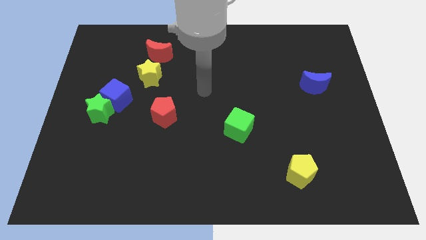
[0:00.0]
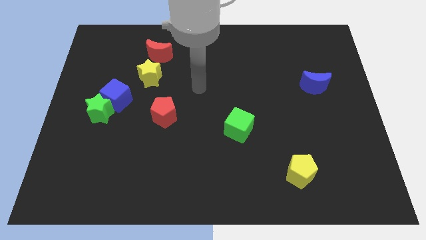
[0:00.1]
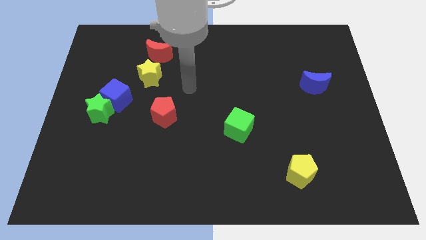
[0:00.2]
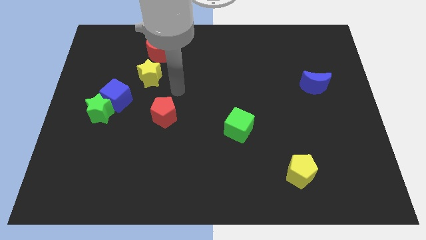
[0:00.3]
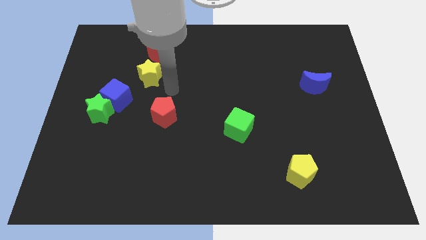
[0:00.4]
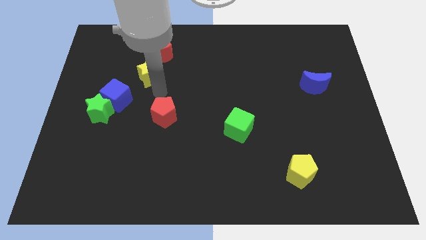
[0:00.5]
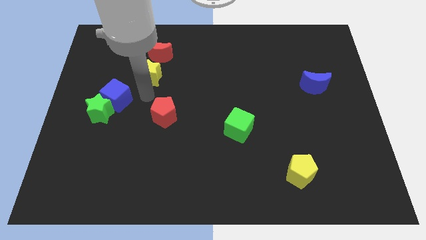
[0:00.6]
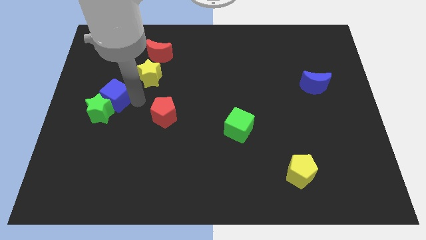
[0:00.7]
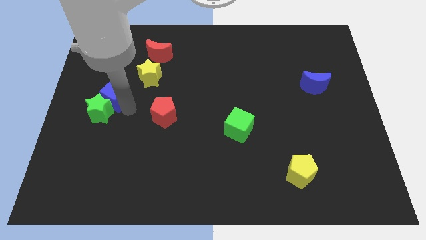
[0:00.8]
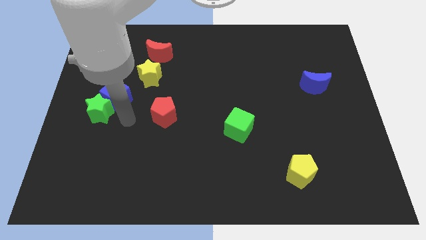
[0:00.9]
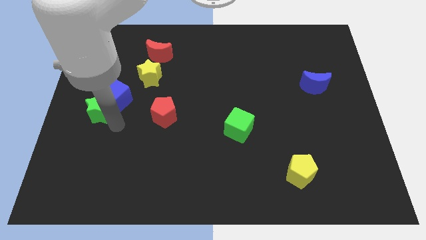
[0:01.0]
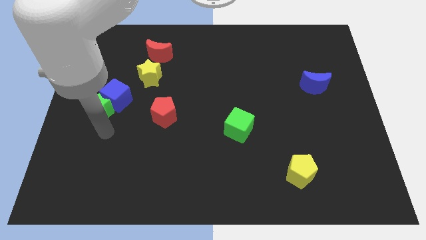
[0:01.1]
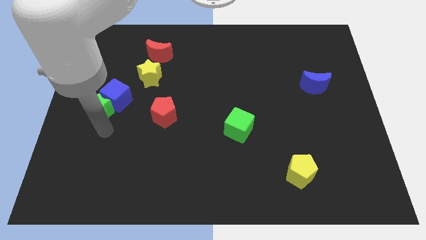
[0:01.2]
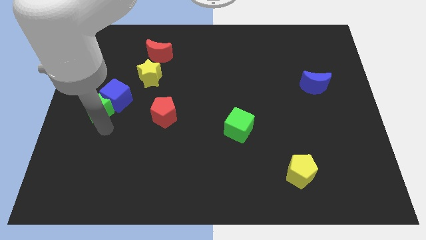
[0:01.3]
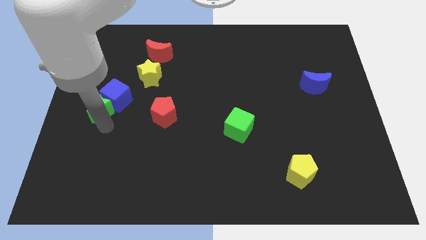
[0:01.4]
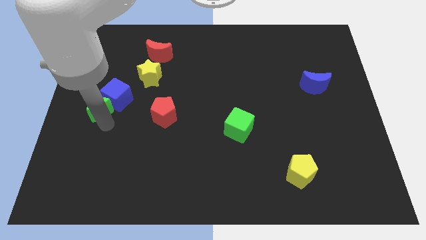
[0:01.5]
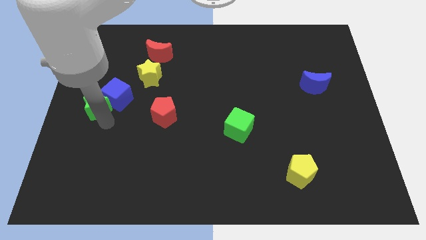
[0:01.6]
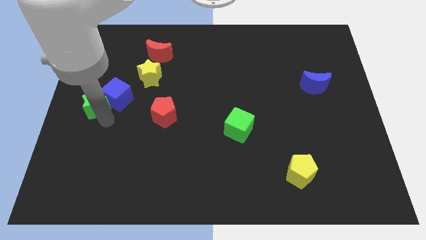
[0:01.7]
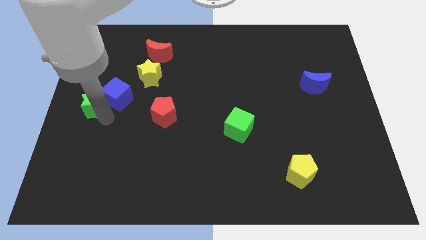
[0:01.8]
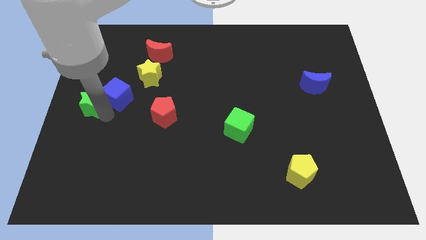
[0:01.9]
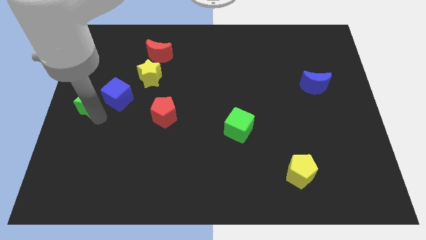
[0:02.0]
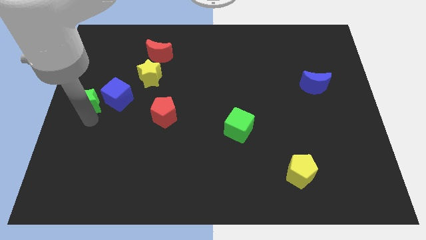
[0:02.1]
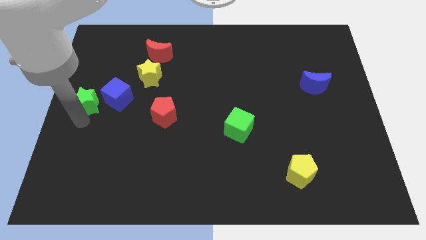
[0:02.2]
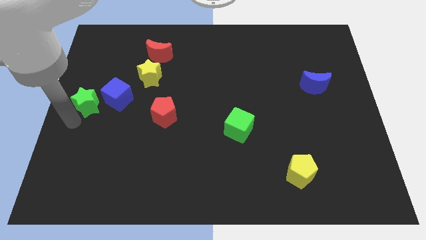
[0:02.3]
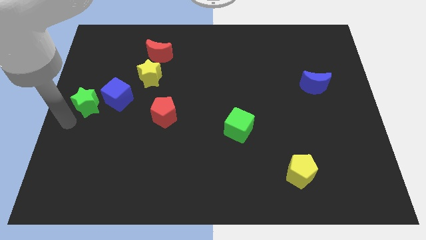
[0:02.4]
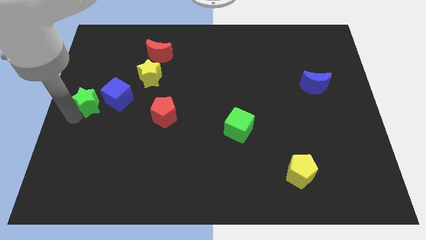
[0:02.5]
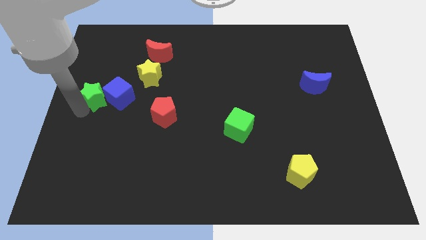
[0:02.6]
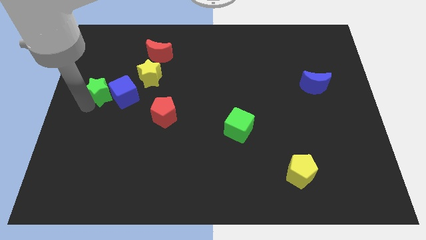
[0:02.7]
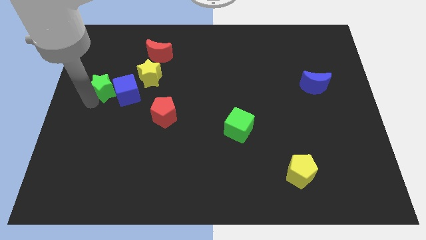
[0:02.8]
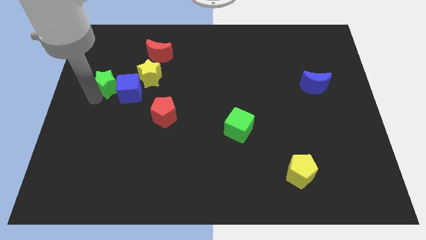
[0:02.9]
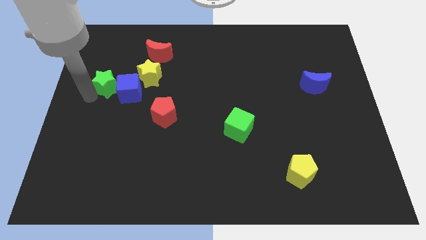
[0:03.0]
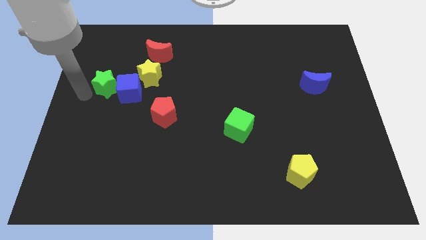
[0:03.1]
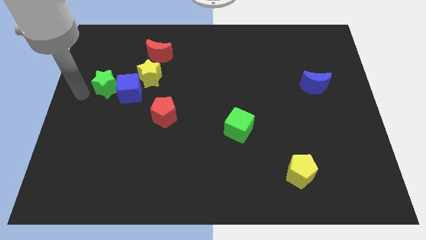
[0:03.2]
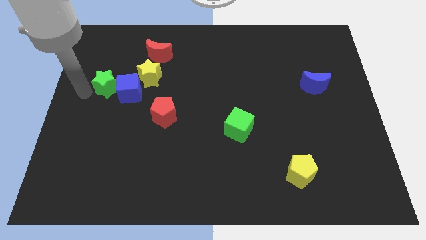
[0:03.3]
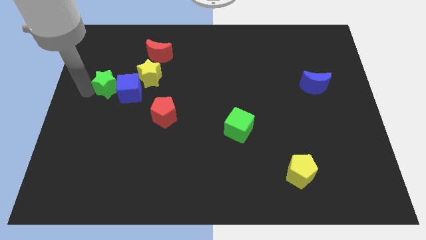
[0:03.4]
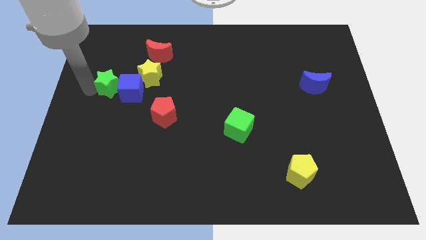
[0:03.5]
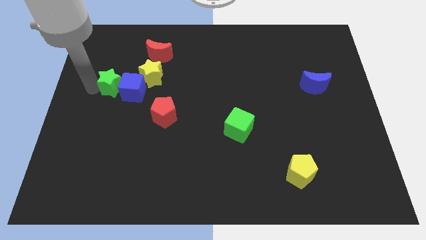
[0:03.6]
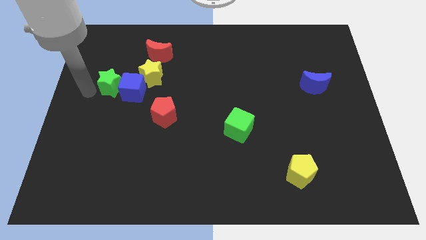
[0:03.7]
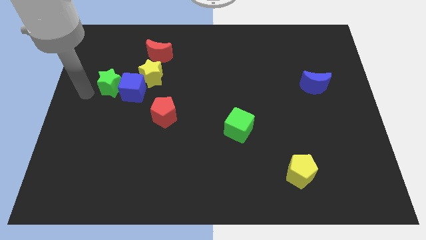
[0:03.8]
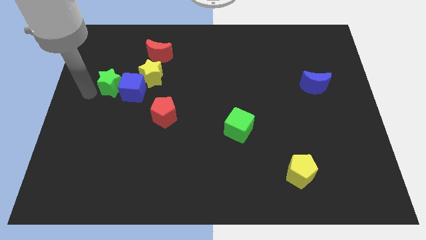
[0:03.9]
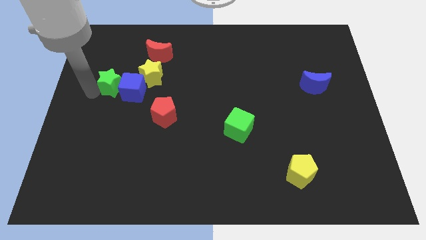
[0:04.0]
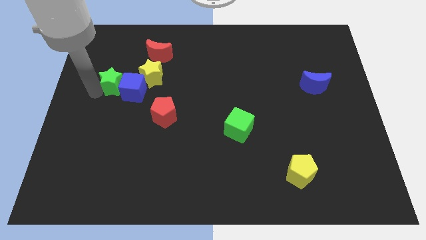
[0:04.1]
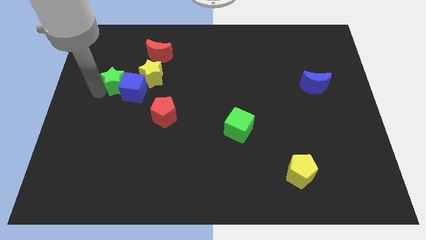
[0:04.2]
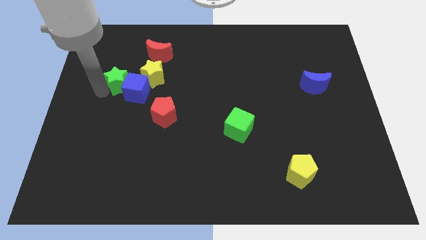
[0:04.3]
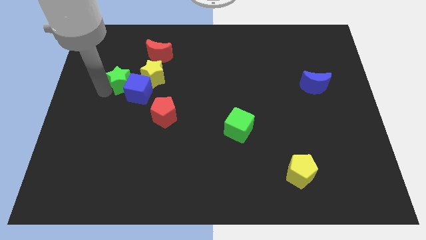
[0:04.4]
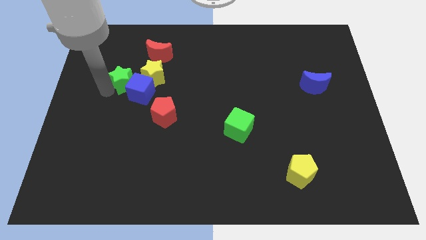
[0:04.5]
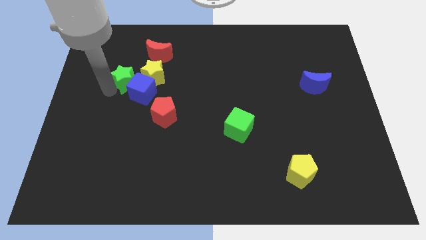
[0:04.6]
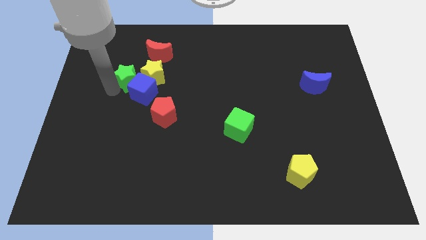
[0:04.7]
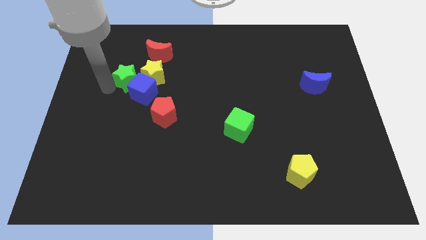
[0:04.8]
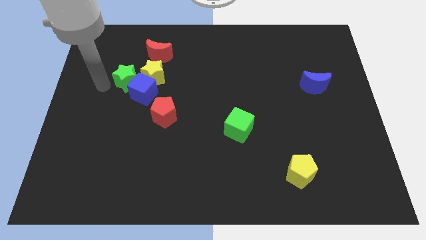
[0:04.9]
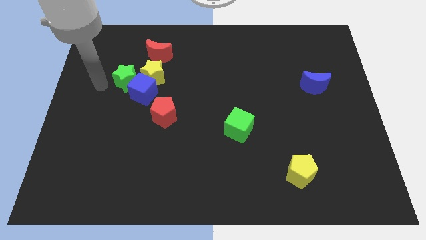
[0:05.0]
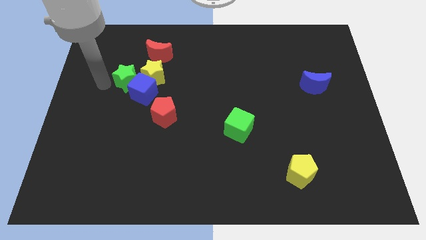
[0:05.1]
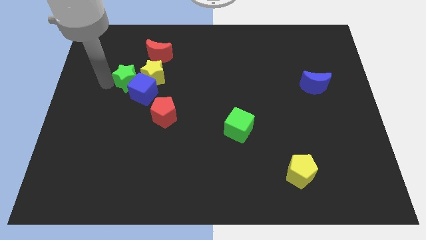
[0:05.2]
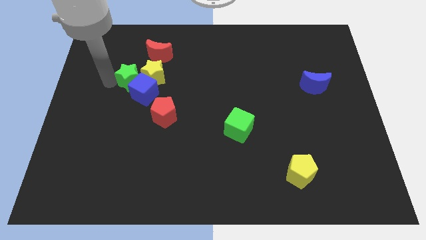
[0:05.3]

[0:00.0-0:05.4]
put the green star next to the yellow star

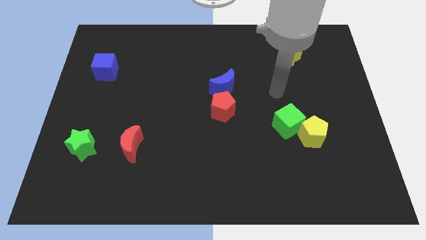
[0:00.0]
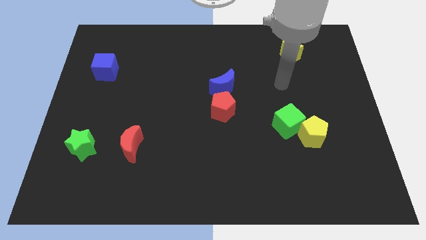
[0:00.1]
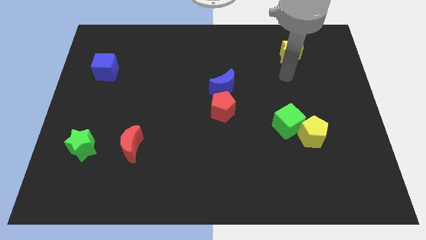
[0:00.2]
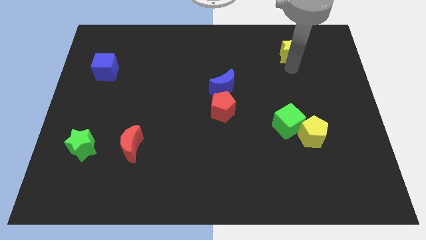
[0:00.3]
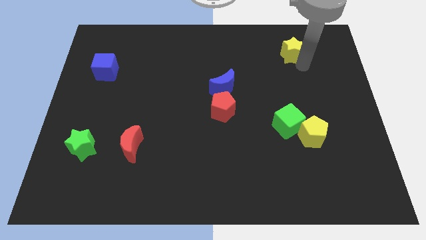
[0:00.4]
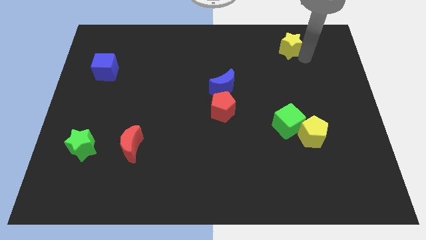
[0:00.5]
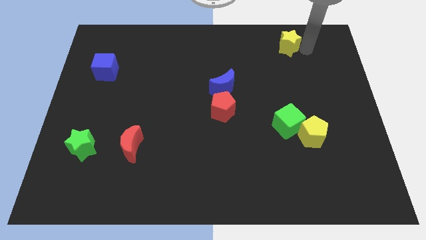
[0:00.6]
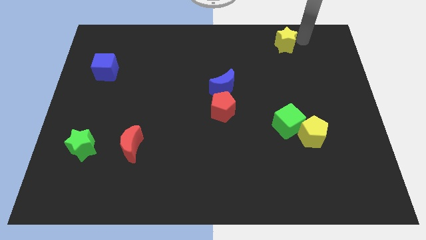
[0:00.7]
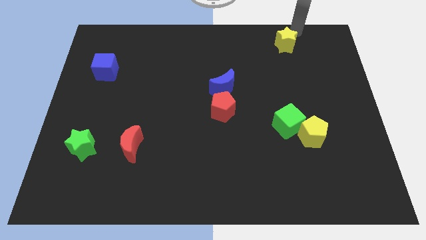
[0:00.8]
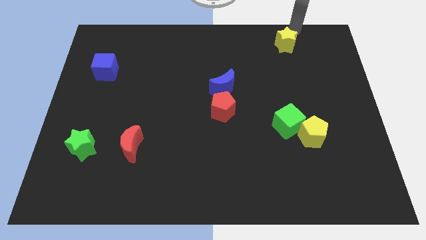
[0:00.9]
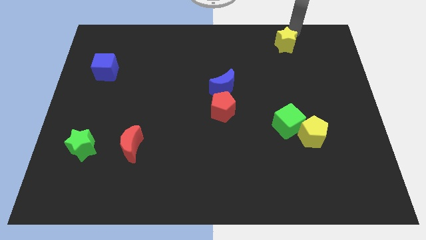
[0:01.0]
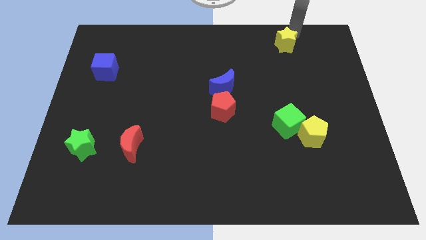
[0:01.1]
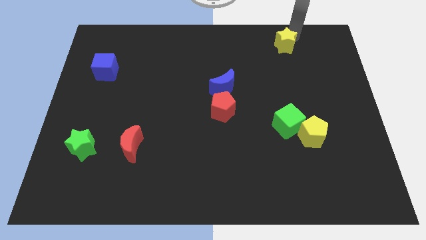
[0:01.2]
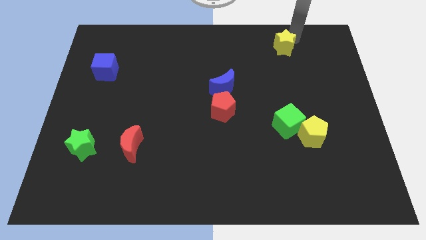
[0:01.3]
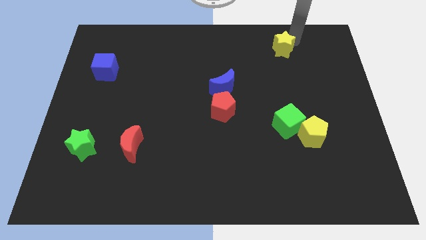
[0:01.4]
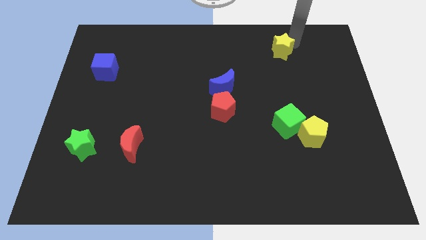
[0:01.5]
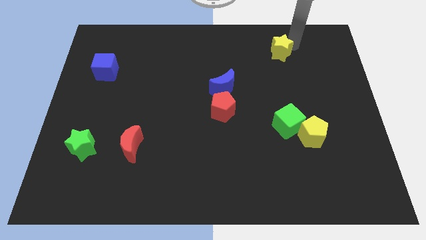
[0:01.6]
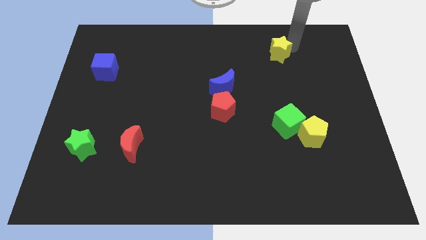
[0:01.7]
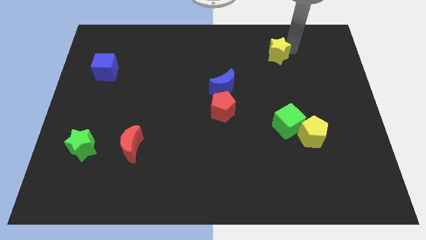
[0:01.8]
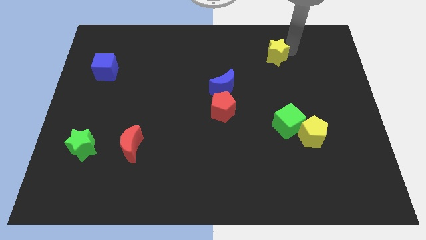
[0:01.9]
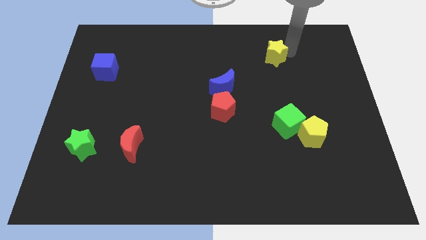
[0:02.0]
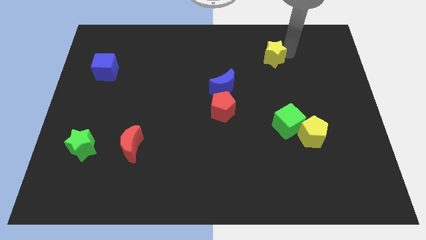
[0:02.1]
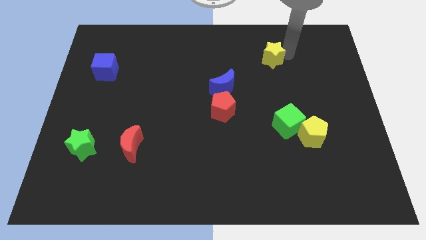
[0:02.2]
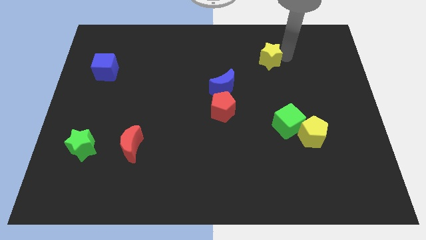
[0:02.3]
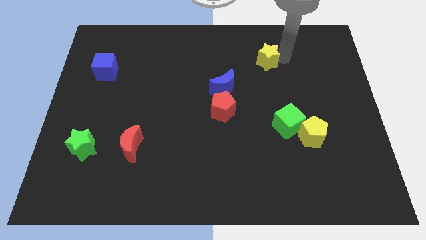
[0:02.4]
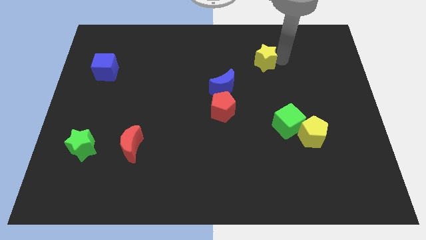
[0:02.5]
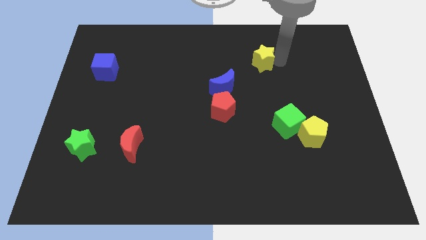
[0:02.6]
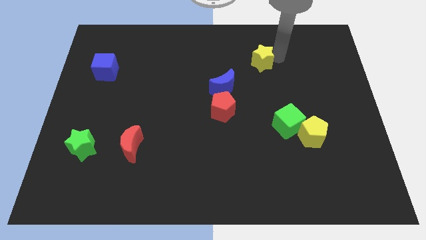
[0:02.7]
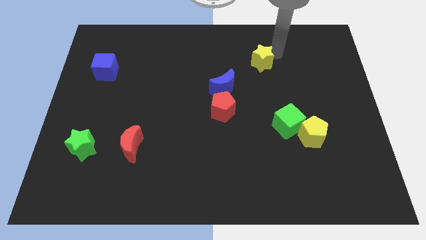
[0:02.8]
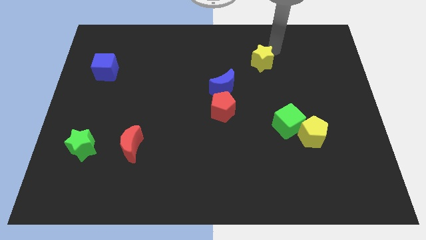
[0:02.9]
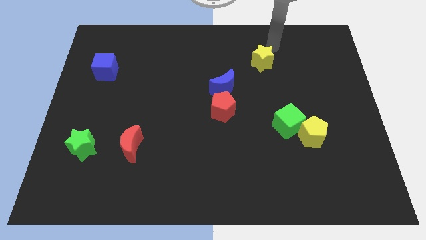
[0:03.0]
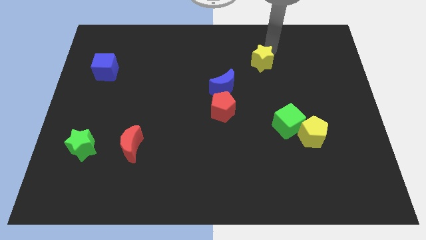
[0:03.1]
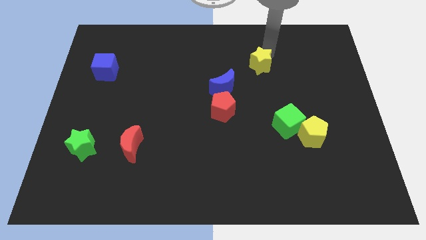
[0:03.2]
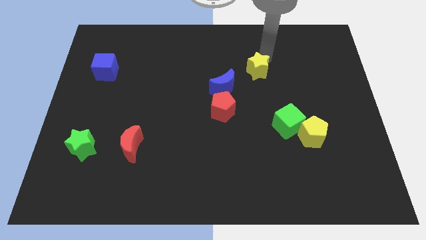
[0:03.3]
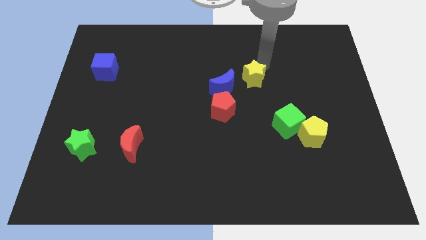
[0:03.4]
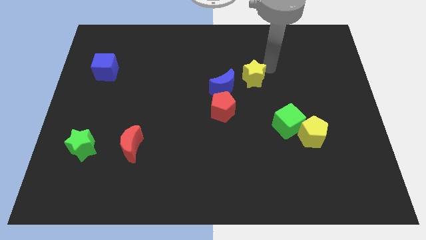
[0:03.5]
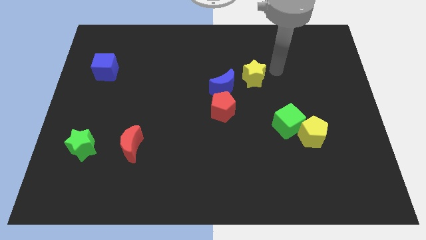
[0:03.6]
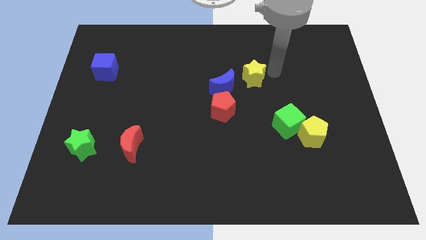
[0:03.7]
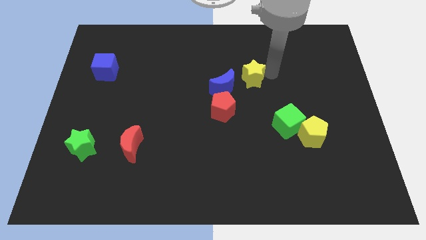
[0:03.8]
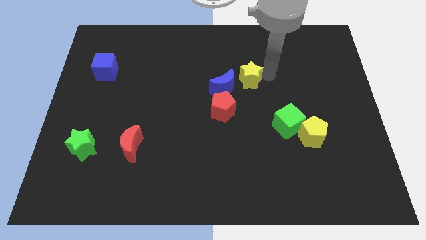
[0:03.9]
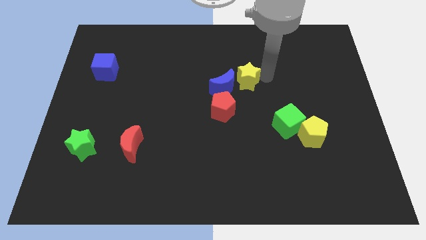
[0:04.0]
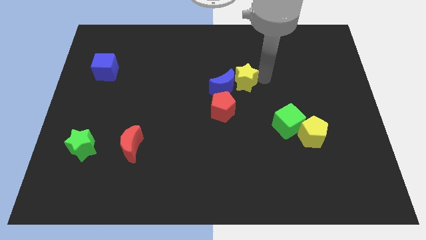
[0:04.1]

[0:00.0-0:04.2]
slide the yellow star towards the blue moon
